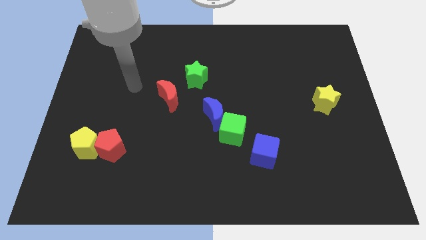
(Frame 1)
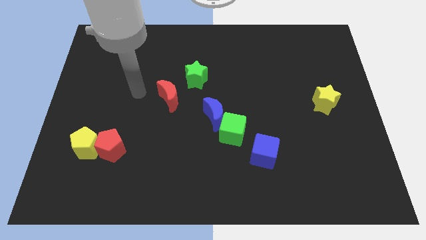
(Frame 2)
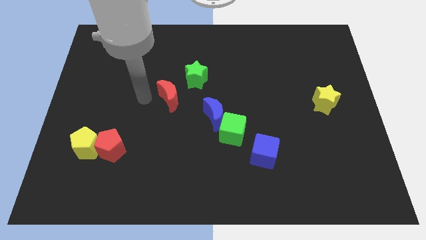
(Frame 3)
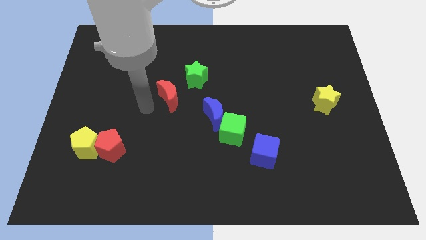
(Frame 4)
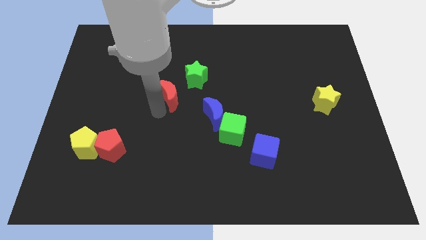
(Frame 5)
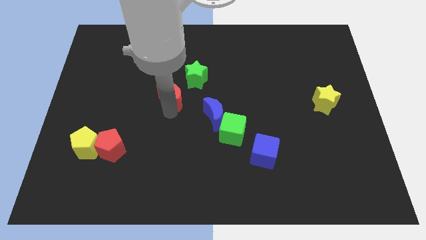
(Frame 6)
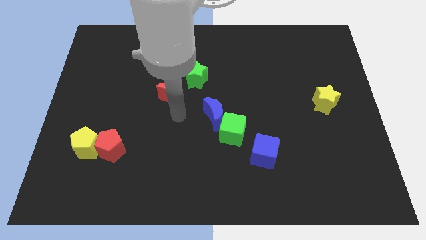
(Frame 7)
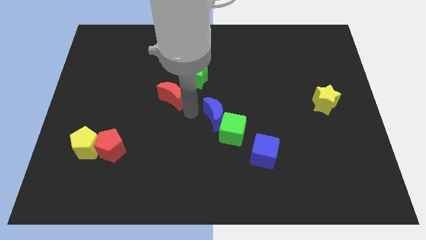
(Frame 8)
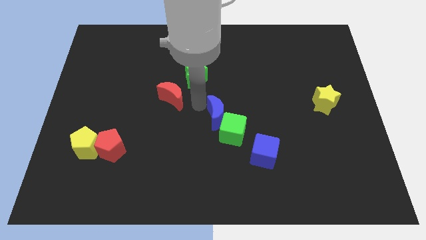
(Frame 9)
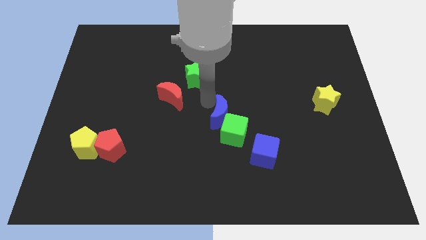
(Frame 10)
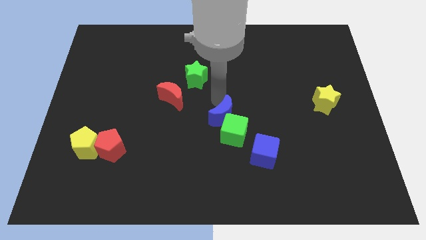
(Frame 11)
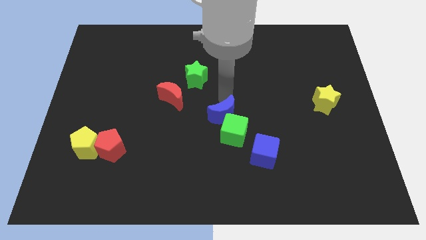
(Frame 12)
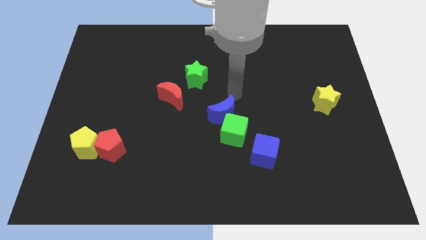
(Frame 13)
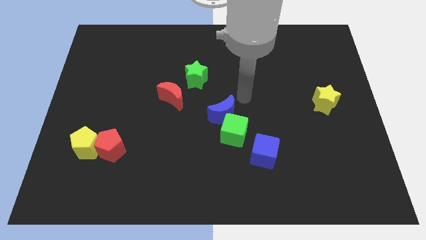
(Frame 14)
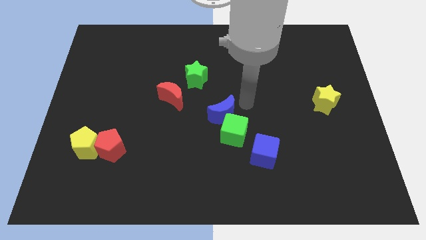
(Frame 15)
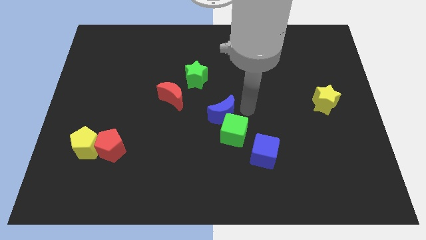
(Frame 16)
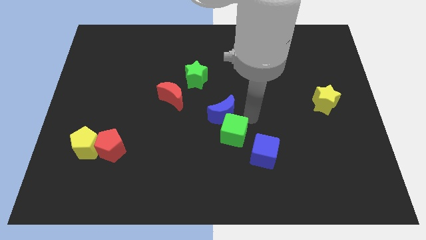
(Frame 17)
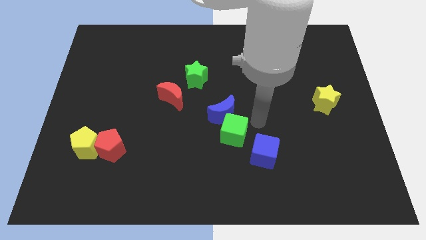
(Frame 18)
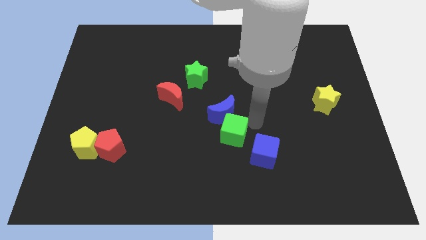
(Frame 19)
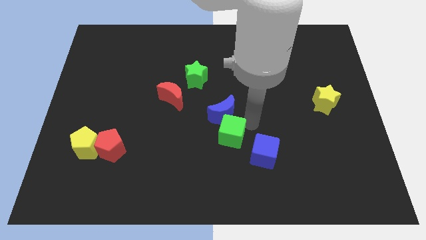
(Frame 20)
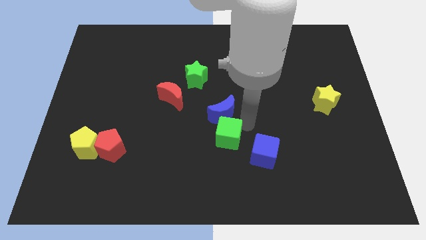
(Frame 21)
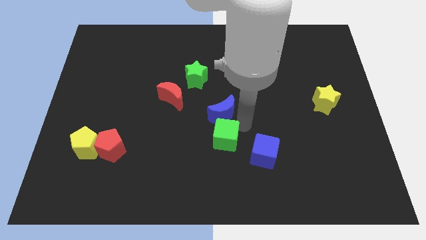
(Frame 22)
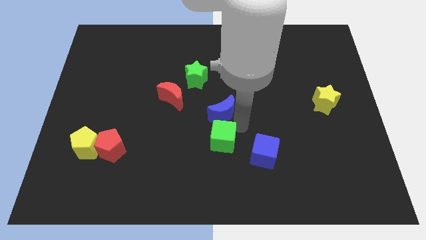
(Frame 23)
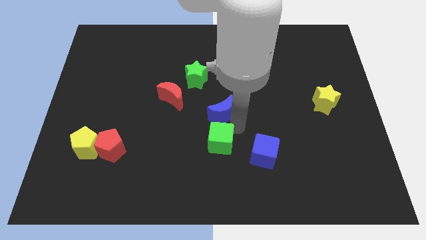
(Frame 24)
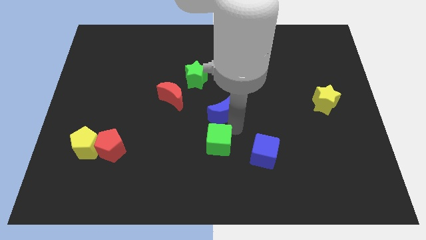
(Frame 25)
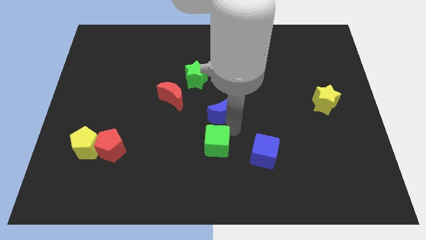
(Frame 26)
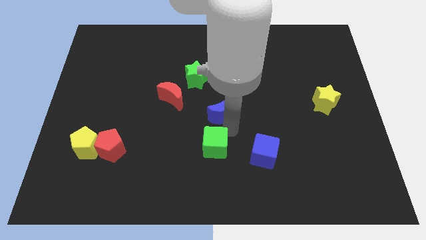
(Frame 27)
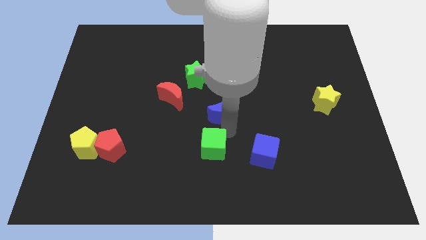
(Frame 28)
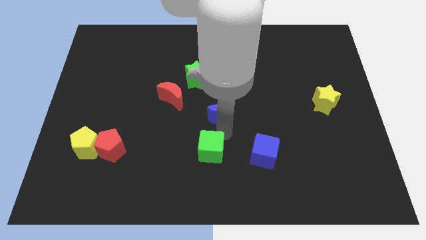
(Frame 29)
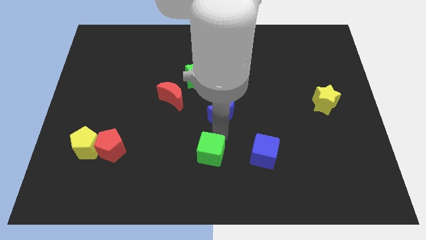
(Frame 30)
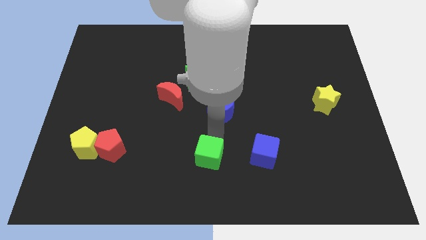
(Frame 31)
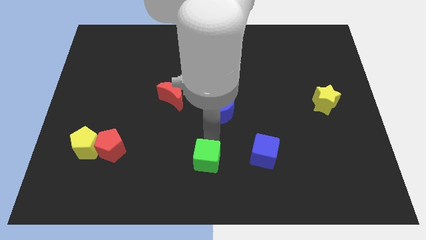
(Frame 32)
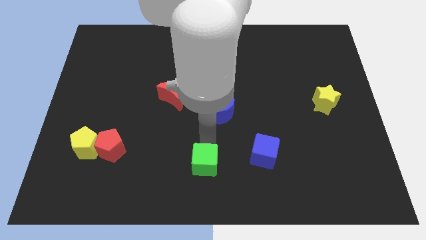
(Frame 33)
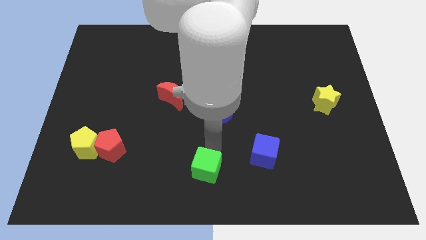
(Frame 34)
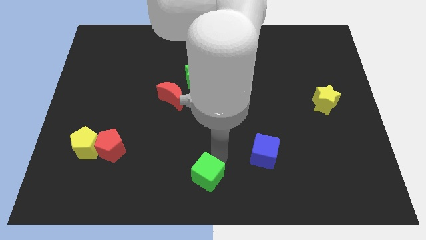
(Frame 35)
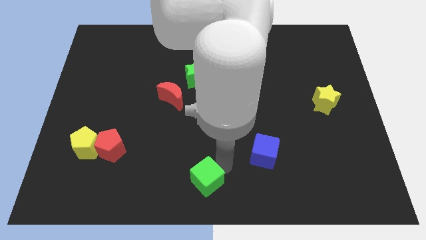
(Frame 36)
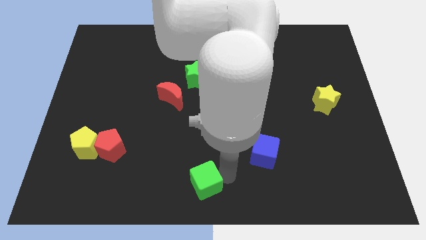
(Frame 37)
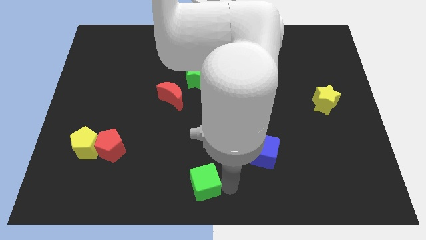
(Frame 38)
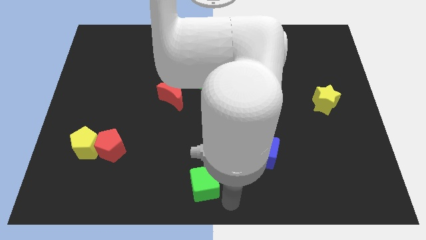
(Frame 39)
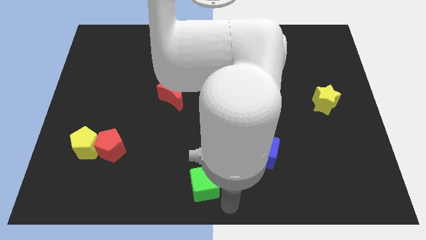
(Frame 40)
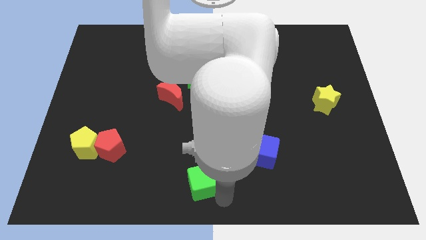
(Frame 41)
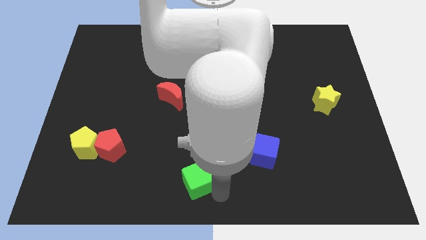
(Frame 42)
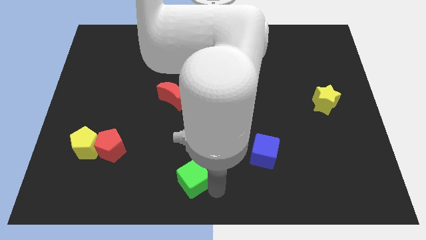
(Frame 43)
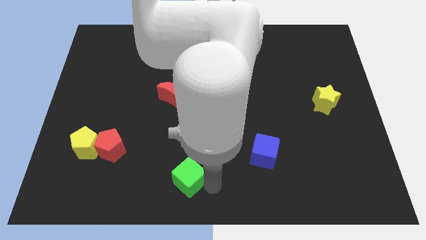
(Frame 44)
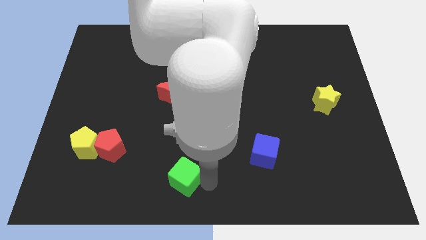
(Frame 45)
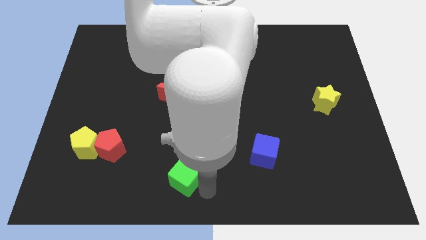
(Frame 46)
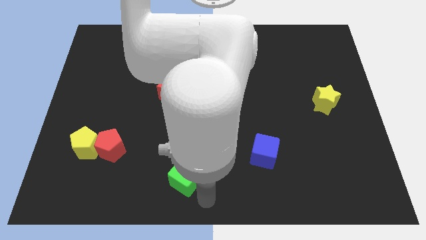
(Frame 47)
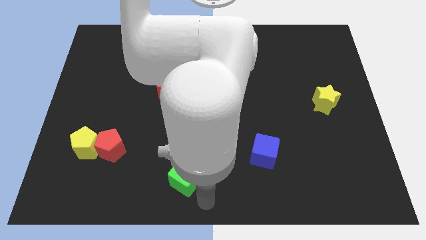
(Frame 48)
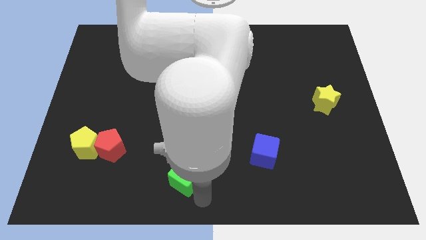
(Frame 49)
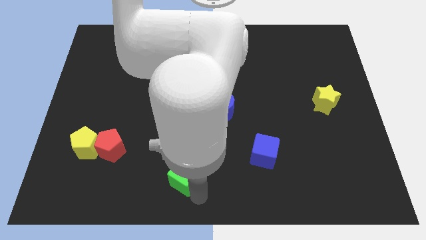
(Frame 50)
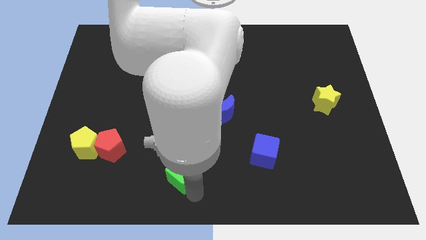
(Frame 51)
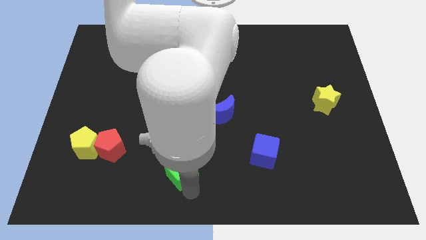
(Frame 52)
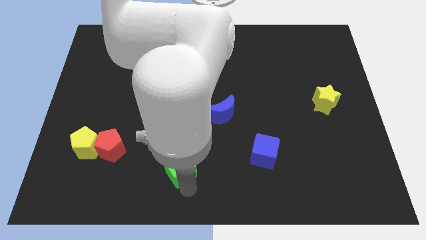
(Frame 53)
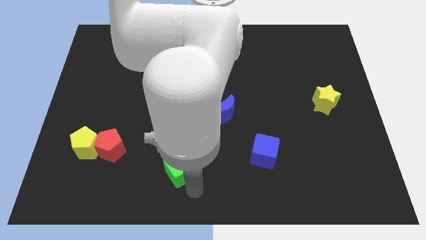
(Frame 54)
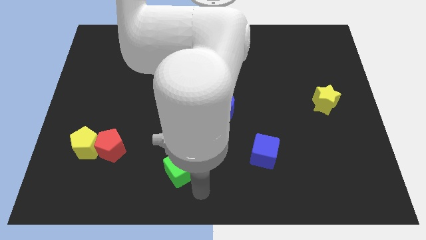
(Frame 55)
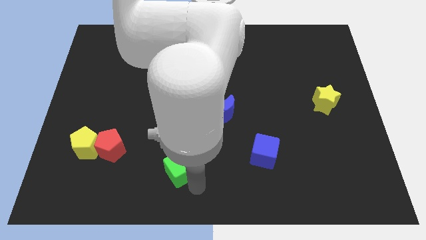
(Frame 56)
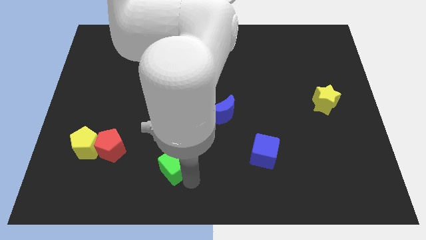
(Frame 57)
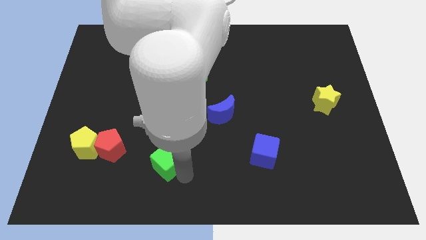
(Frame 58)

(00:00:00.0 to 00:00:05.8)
slide the green cube right of the red pentagon

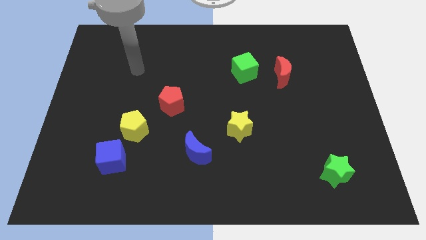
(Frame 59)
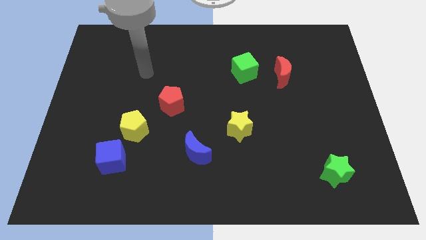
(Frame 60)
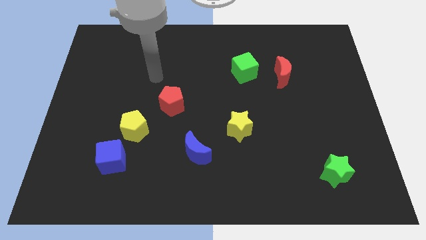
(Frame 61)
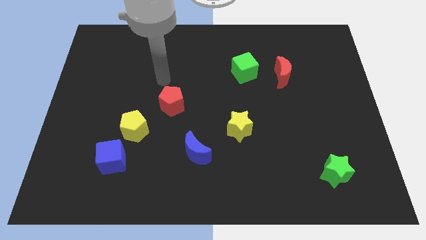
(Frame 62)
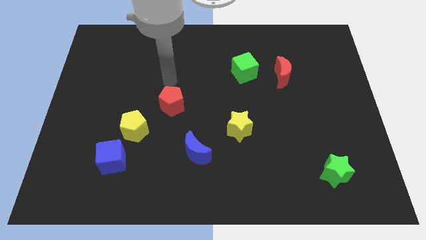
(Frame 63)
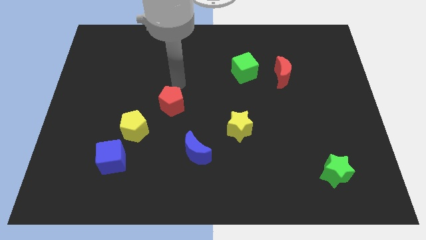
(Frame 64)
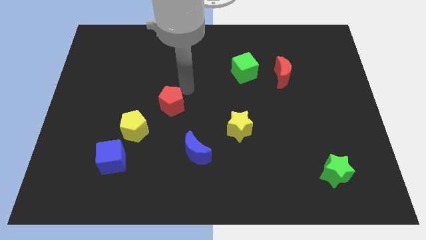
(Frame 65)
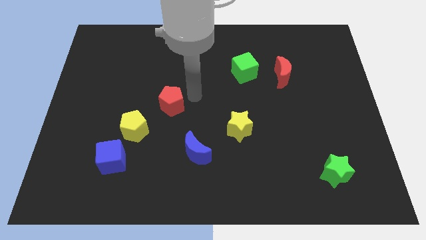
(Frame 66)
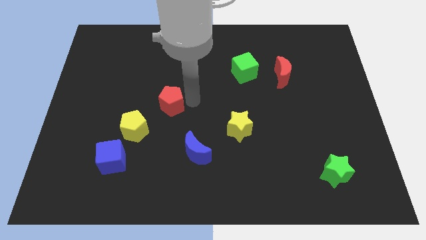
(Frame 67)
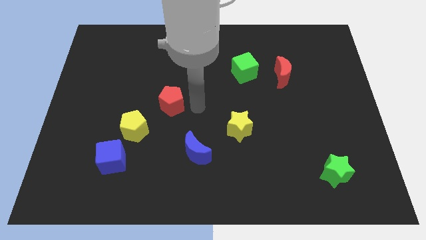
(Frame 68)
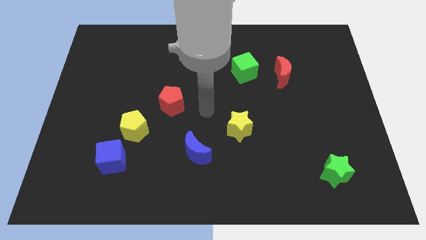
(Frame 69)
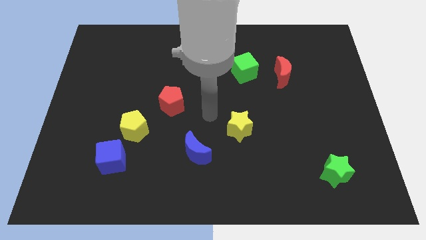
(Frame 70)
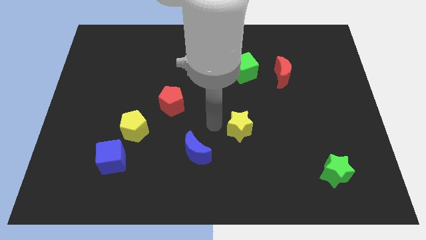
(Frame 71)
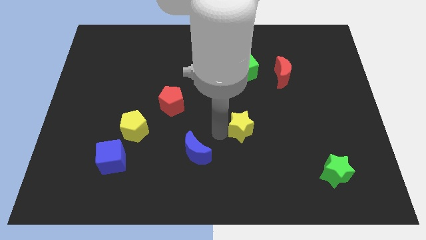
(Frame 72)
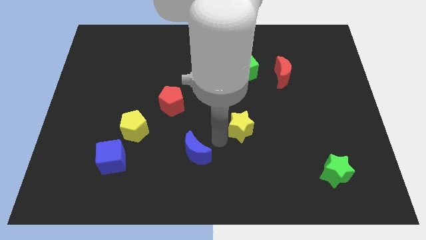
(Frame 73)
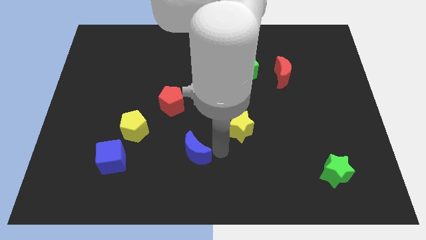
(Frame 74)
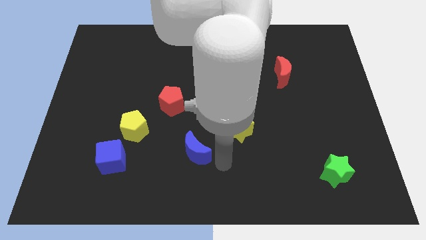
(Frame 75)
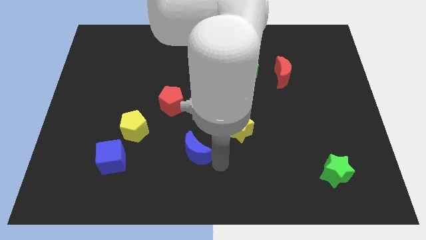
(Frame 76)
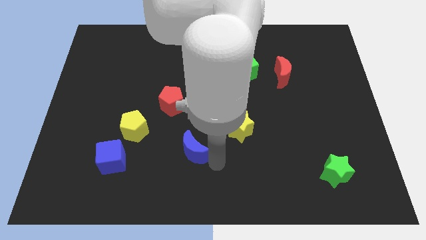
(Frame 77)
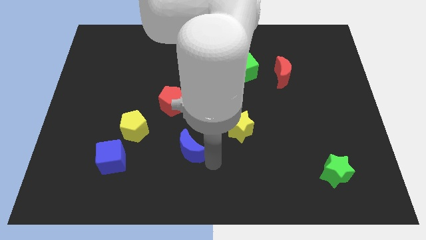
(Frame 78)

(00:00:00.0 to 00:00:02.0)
push the blue moon to the bottom side of the red pentagon
